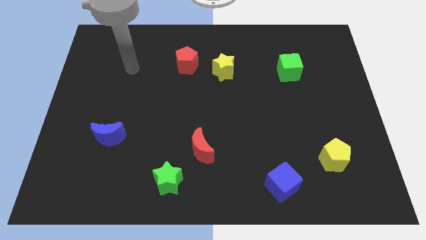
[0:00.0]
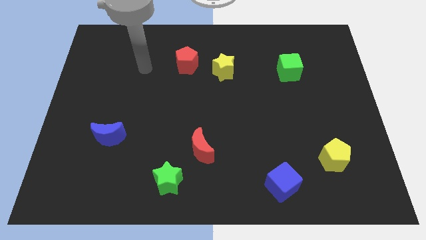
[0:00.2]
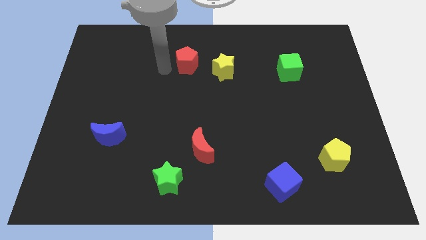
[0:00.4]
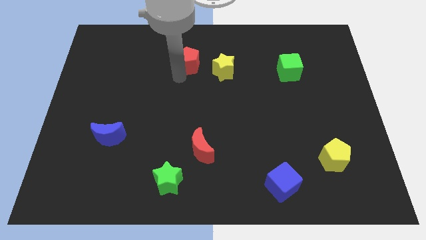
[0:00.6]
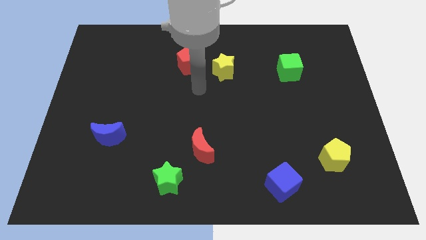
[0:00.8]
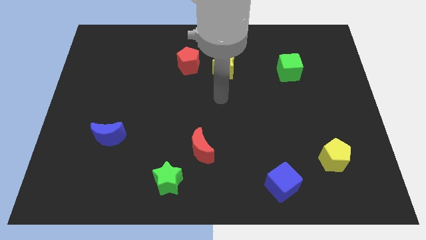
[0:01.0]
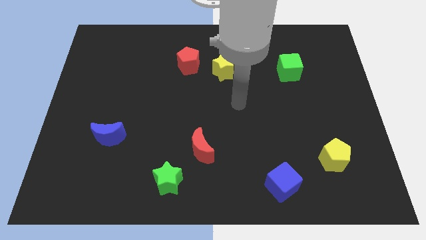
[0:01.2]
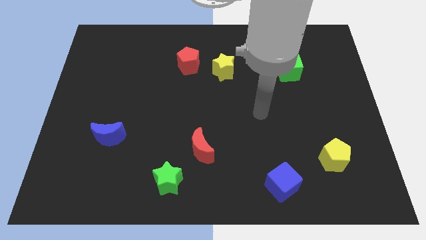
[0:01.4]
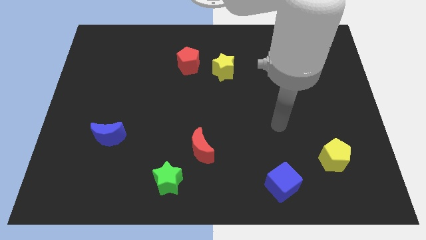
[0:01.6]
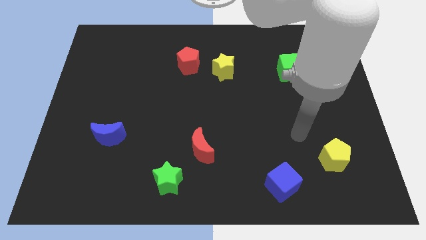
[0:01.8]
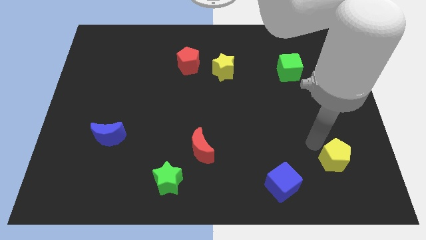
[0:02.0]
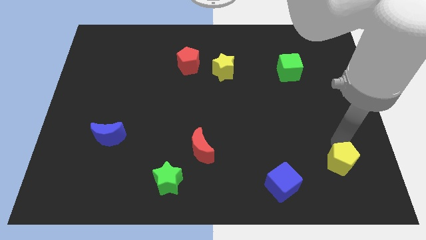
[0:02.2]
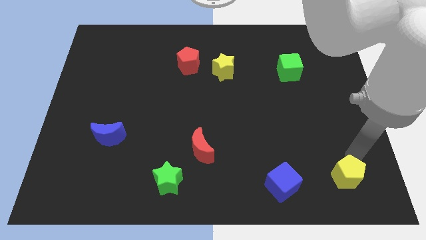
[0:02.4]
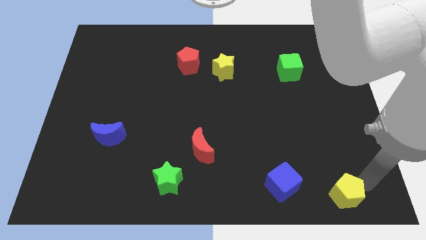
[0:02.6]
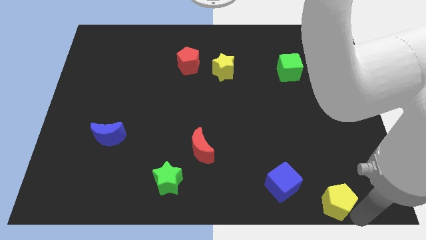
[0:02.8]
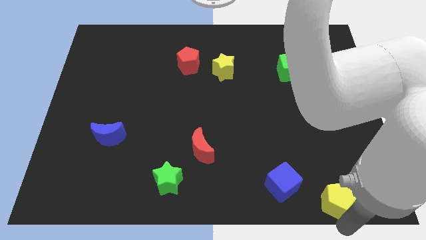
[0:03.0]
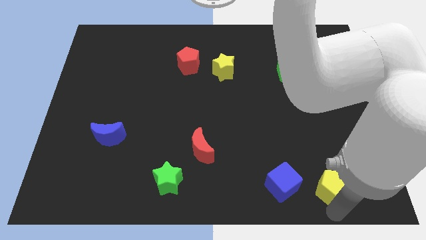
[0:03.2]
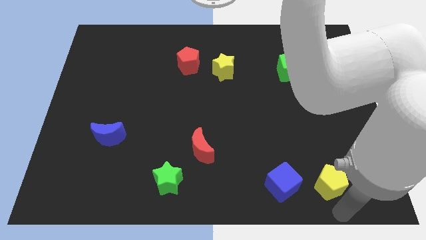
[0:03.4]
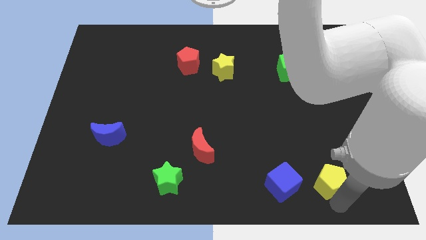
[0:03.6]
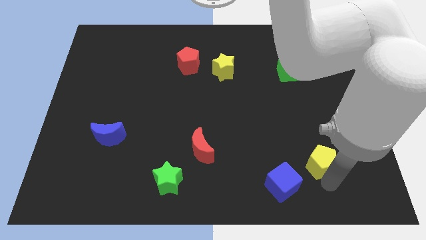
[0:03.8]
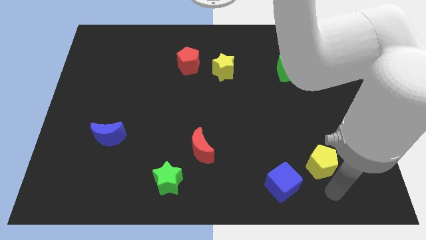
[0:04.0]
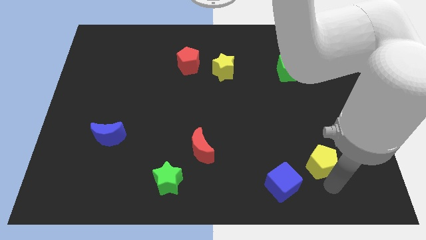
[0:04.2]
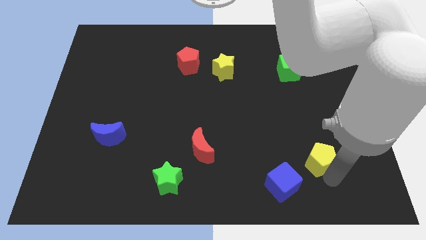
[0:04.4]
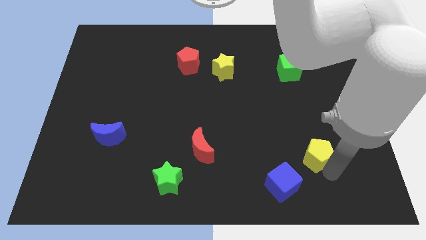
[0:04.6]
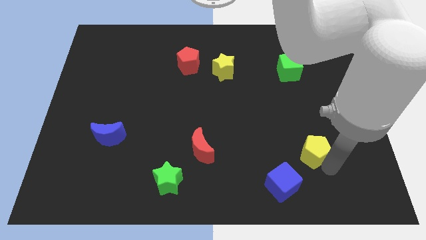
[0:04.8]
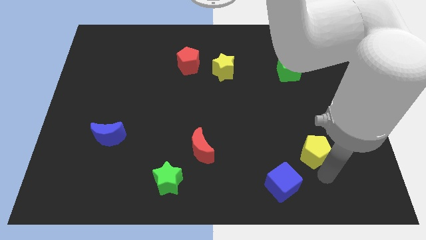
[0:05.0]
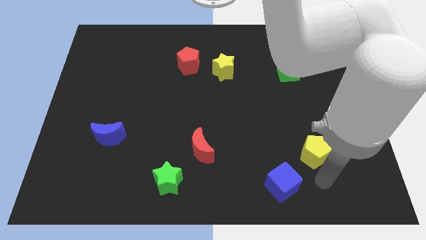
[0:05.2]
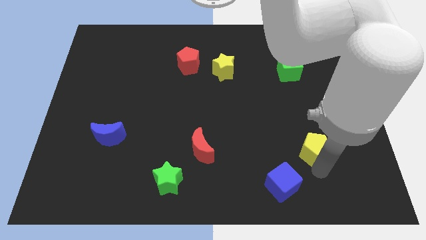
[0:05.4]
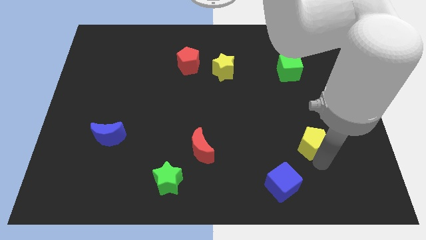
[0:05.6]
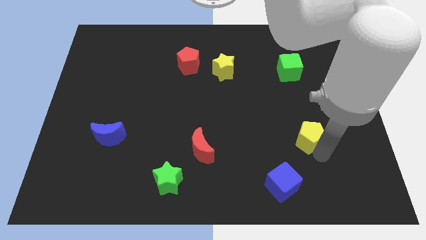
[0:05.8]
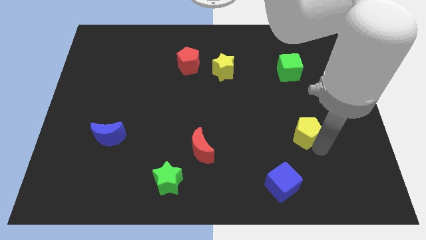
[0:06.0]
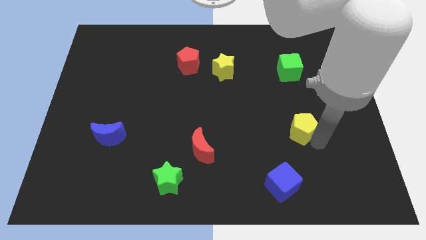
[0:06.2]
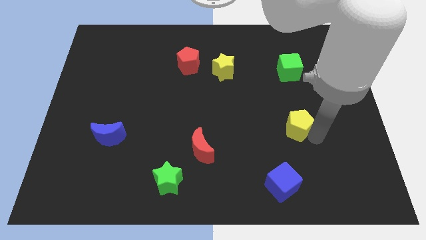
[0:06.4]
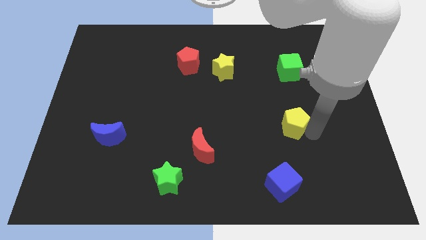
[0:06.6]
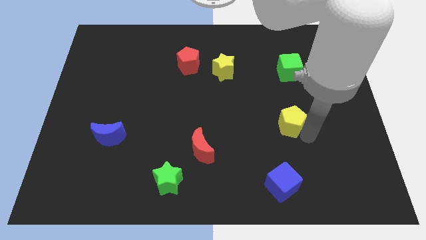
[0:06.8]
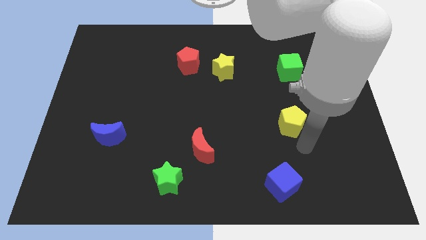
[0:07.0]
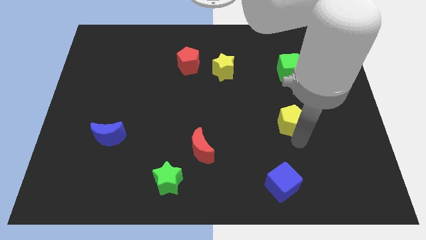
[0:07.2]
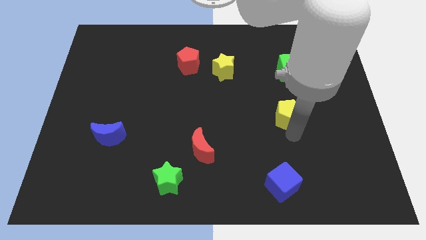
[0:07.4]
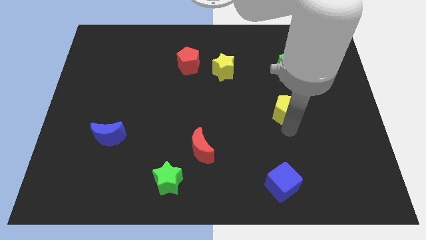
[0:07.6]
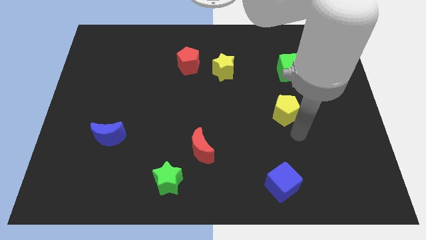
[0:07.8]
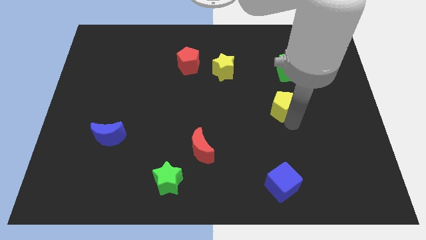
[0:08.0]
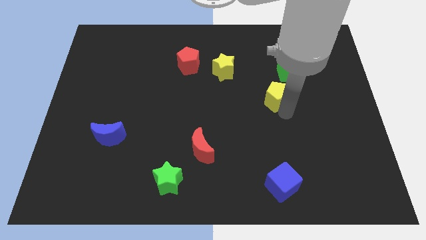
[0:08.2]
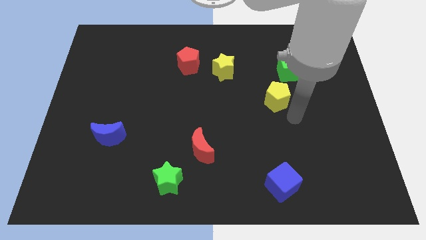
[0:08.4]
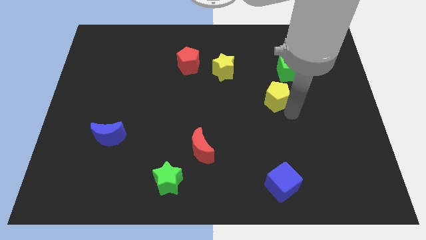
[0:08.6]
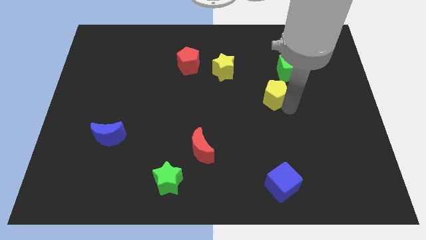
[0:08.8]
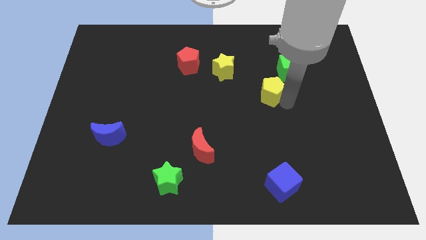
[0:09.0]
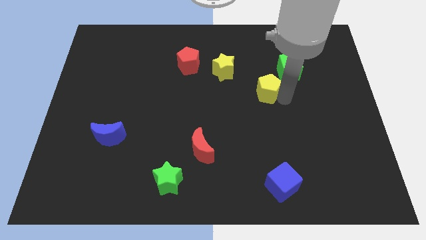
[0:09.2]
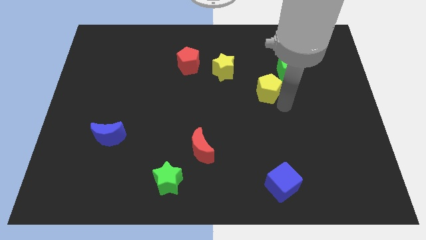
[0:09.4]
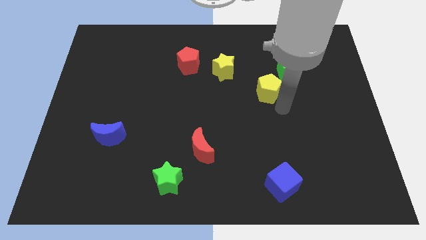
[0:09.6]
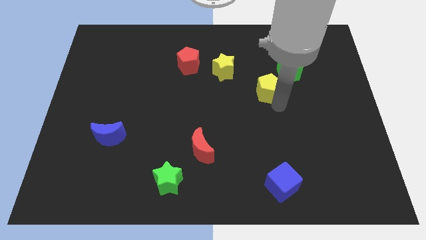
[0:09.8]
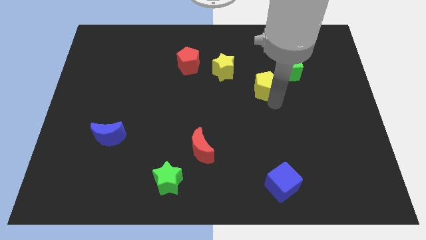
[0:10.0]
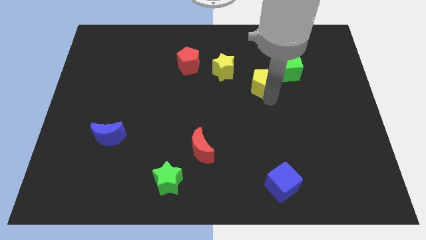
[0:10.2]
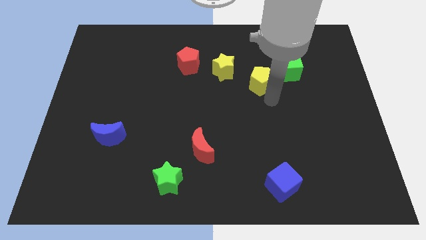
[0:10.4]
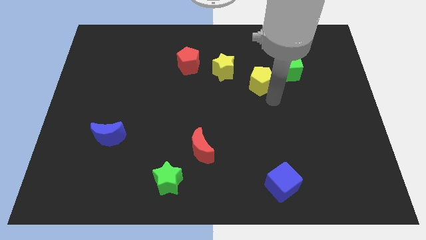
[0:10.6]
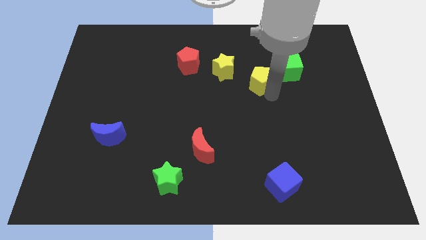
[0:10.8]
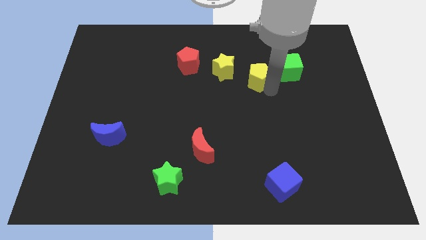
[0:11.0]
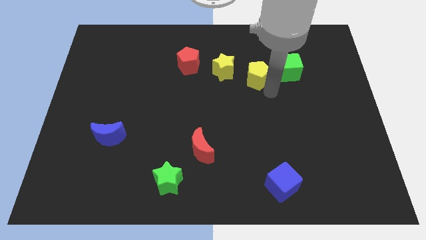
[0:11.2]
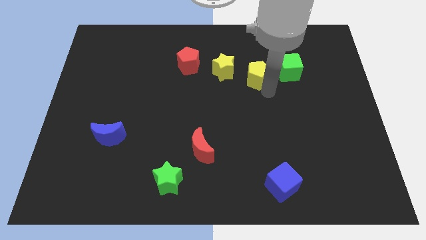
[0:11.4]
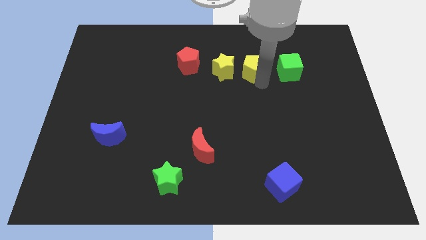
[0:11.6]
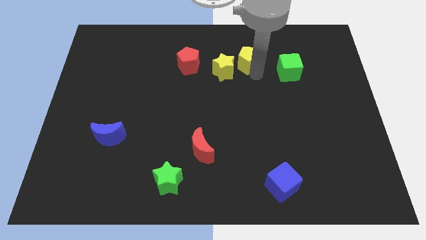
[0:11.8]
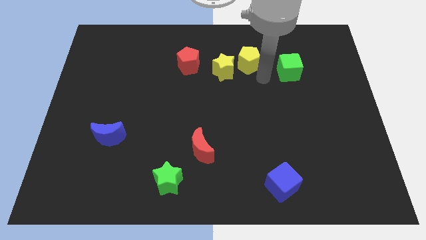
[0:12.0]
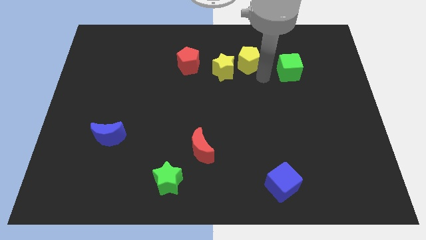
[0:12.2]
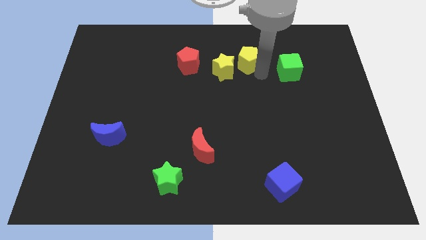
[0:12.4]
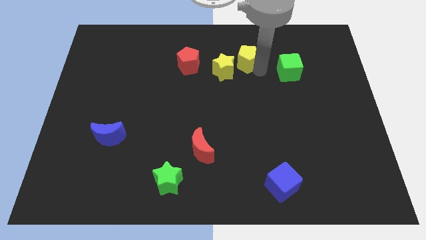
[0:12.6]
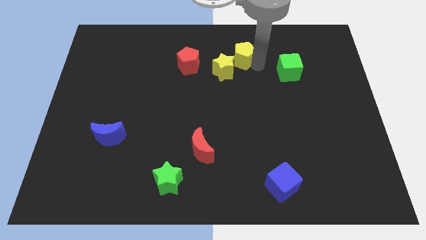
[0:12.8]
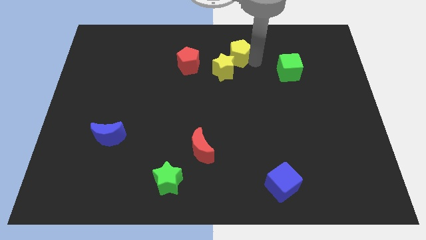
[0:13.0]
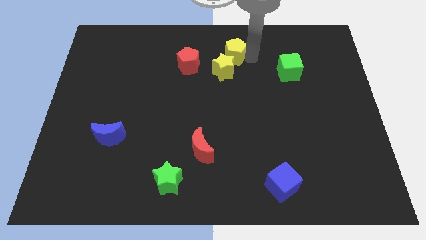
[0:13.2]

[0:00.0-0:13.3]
put the yellow pentagon to the top side

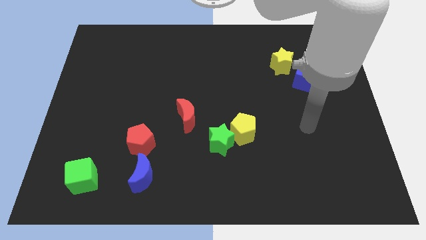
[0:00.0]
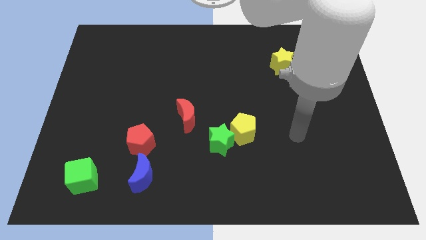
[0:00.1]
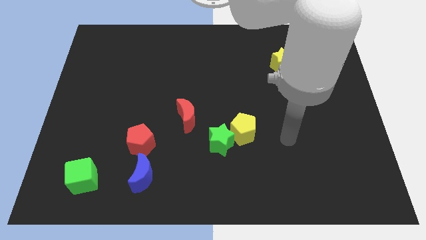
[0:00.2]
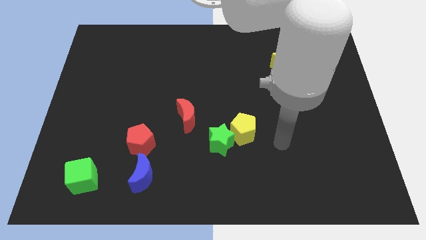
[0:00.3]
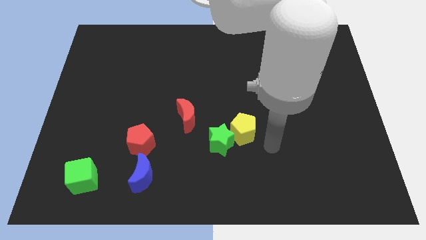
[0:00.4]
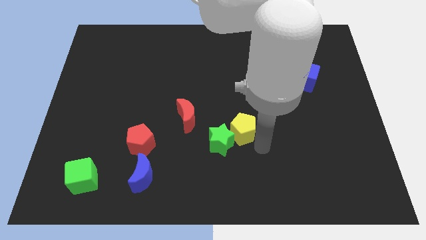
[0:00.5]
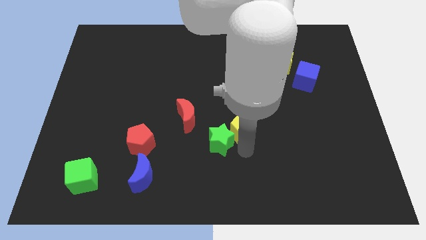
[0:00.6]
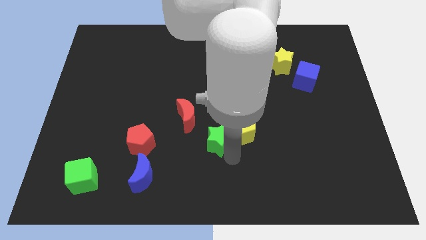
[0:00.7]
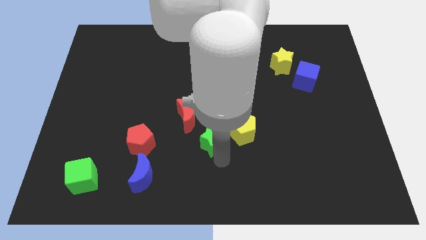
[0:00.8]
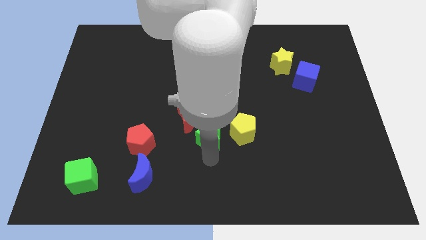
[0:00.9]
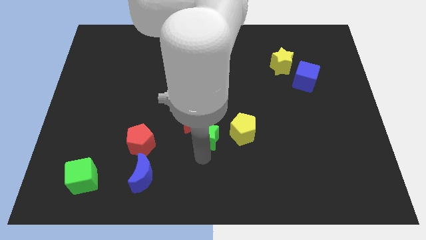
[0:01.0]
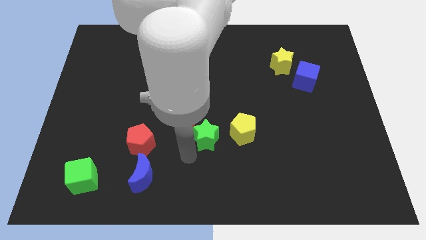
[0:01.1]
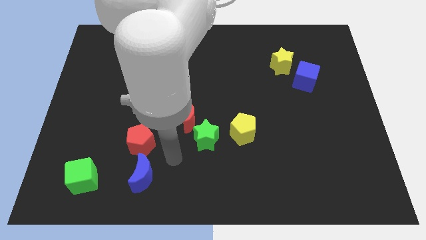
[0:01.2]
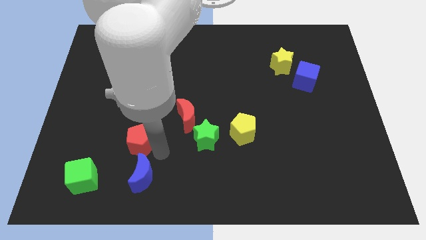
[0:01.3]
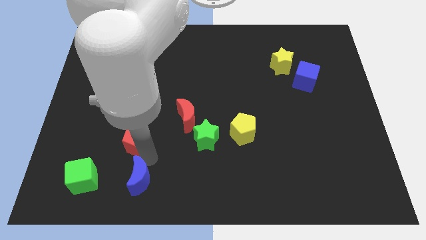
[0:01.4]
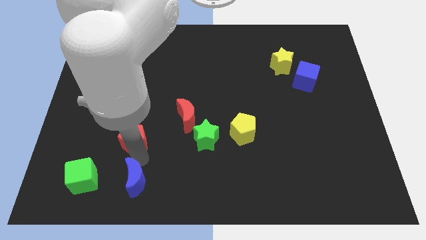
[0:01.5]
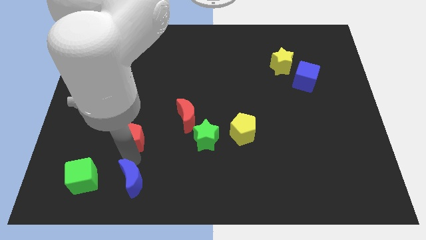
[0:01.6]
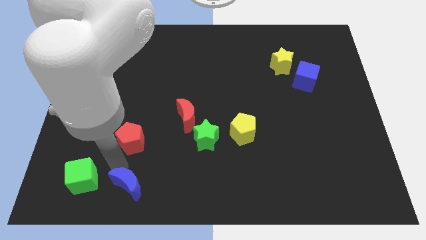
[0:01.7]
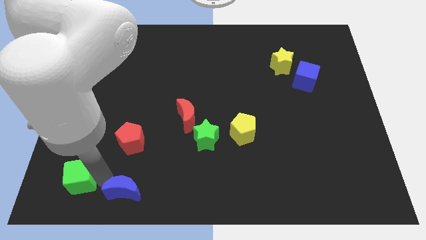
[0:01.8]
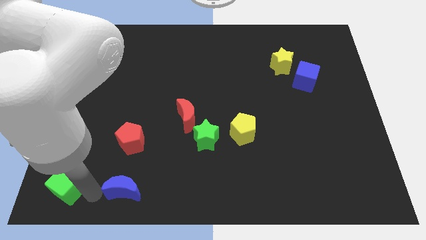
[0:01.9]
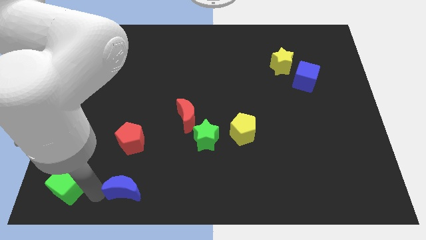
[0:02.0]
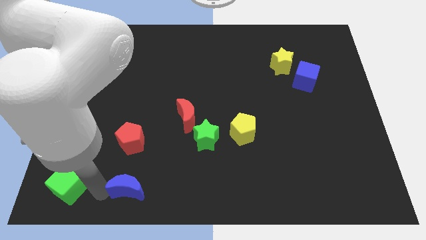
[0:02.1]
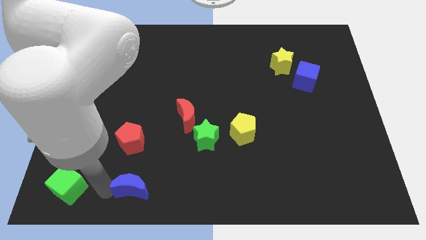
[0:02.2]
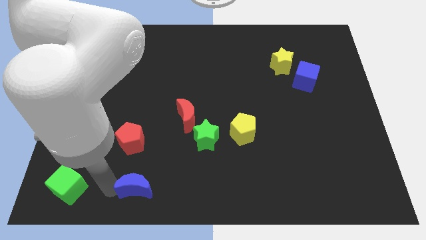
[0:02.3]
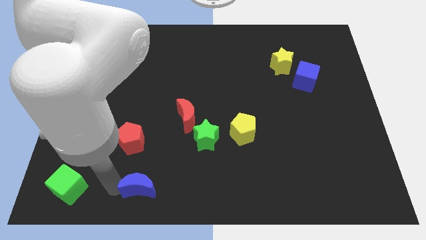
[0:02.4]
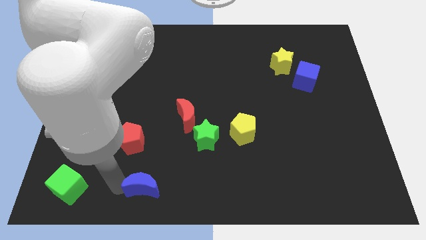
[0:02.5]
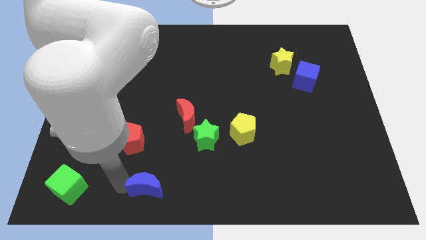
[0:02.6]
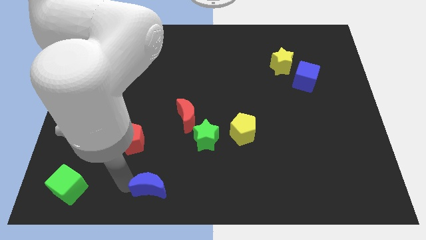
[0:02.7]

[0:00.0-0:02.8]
move the blue moon to the bottom side
